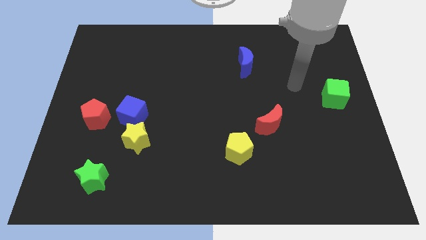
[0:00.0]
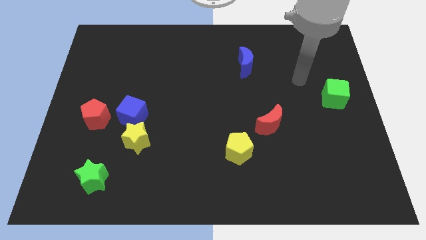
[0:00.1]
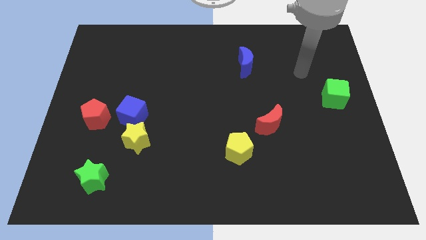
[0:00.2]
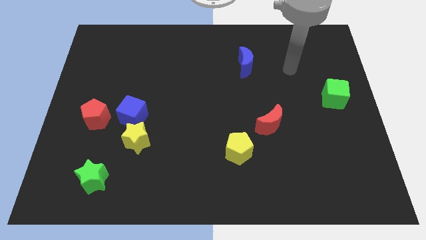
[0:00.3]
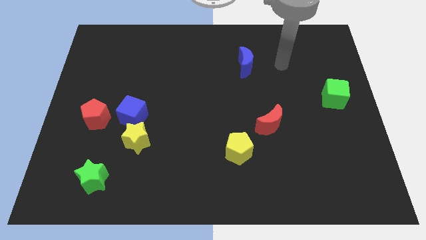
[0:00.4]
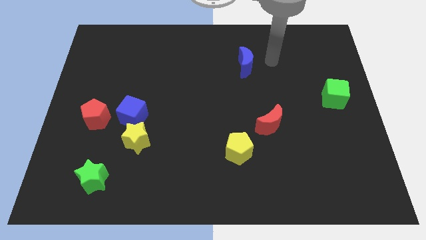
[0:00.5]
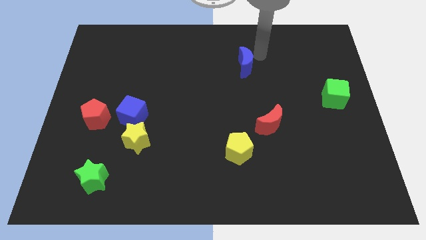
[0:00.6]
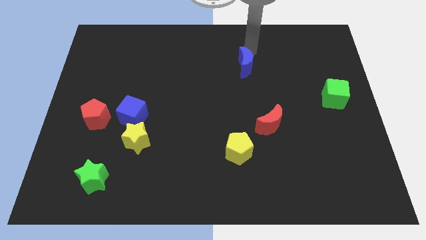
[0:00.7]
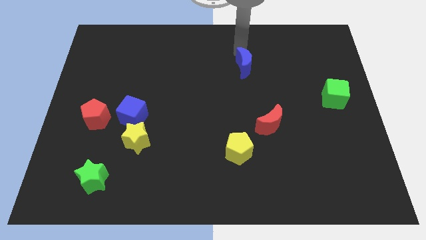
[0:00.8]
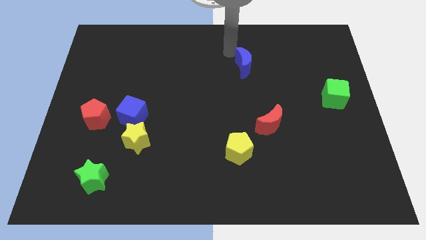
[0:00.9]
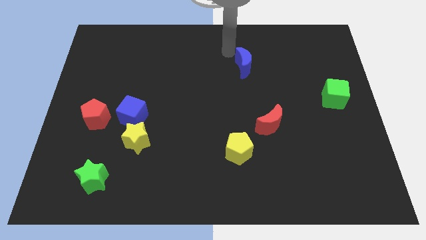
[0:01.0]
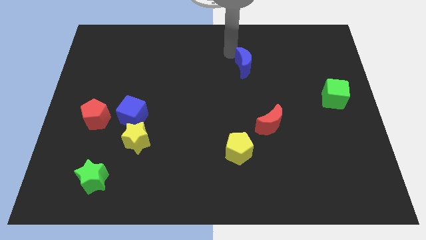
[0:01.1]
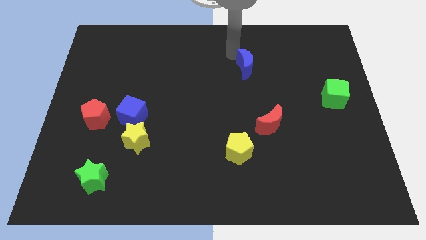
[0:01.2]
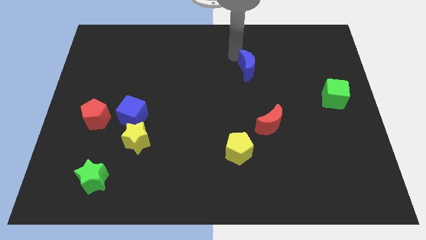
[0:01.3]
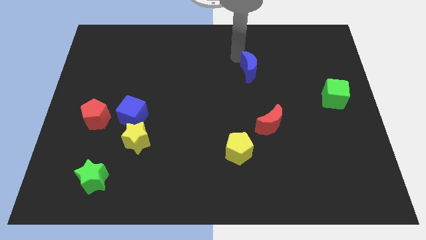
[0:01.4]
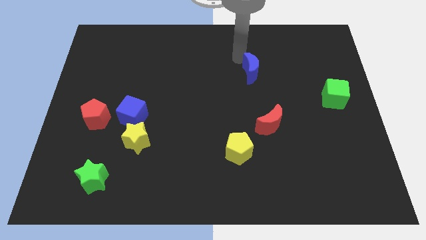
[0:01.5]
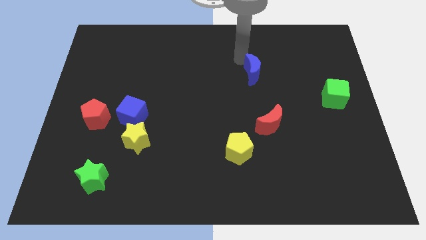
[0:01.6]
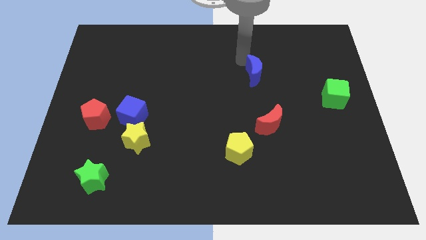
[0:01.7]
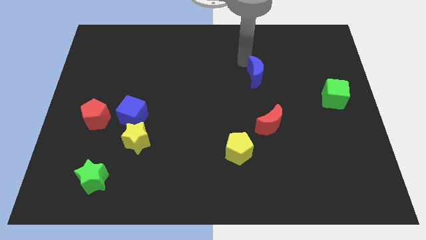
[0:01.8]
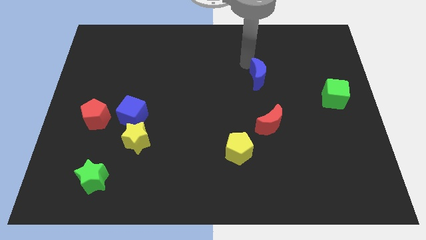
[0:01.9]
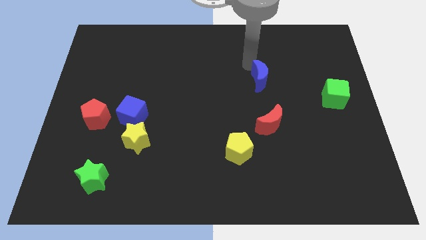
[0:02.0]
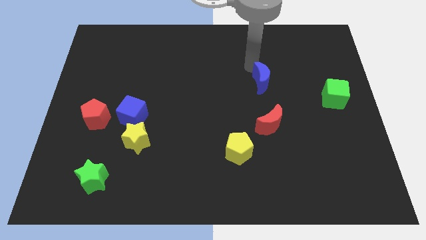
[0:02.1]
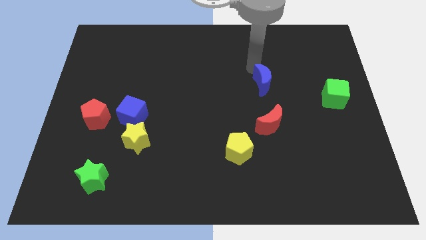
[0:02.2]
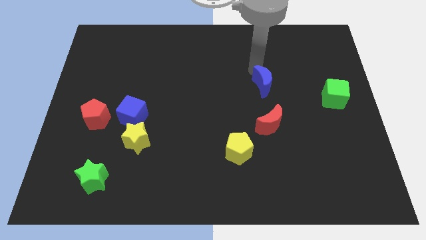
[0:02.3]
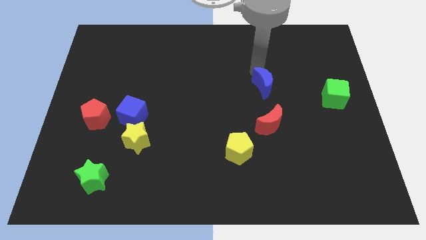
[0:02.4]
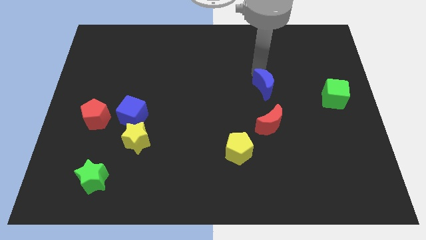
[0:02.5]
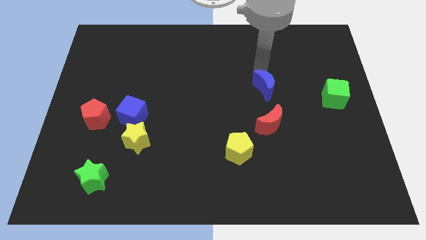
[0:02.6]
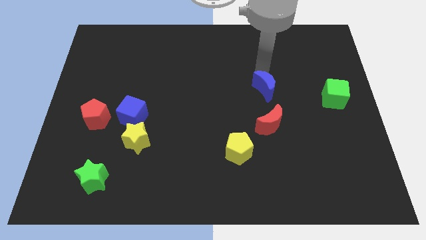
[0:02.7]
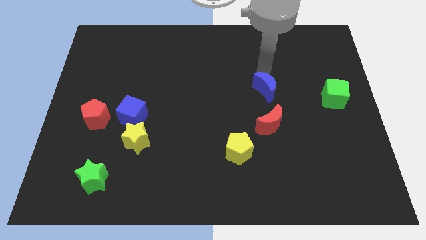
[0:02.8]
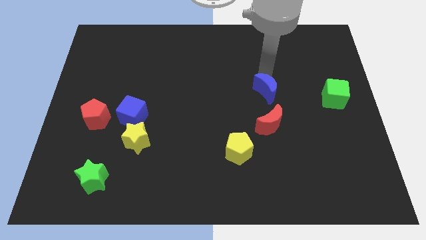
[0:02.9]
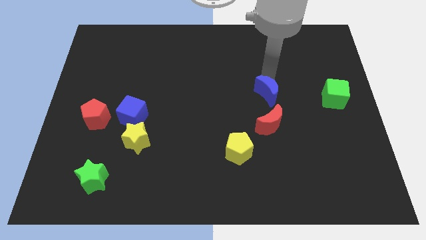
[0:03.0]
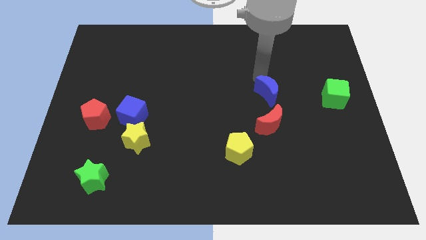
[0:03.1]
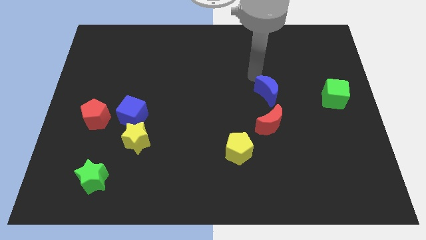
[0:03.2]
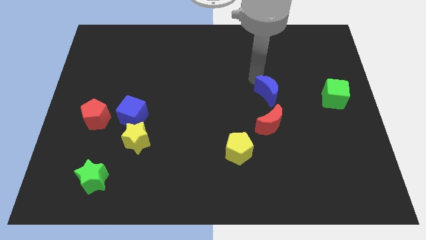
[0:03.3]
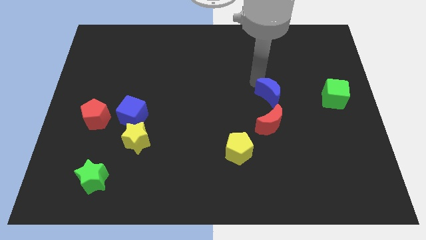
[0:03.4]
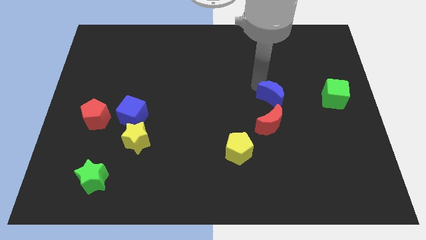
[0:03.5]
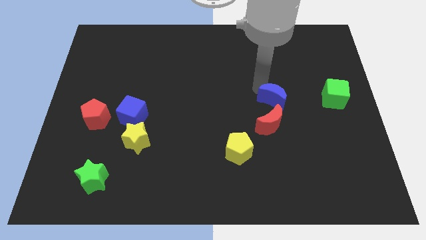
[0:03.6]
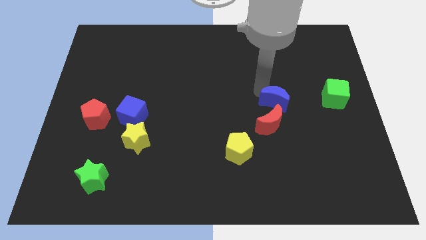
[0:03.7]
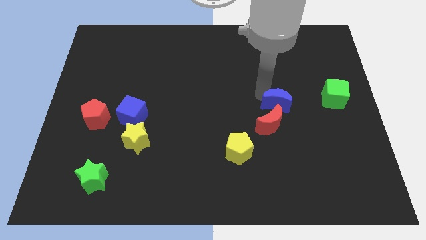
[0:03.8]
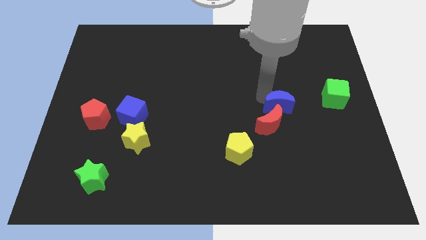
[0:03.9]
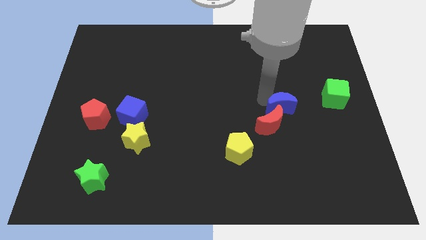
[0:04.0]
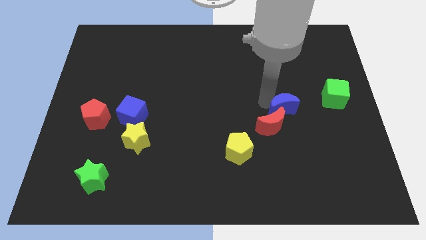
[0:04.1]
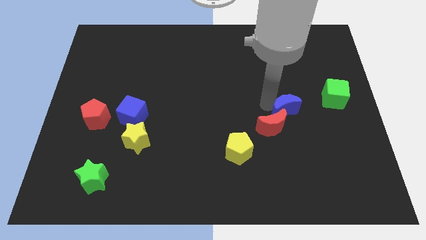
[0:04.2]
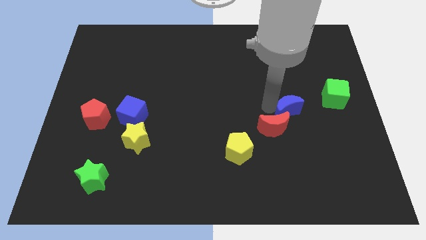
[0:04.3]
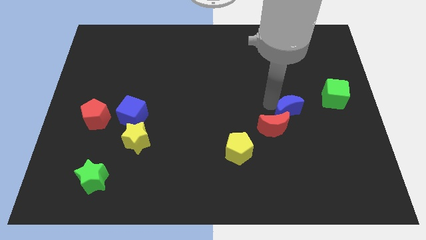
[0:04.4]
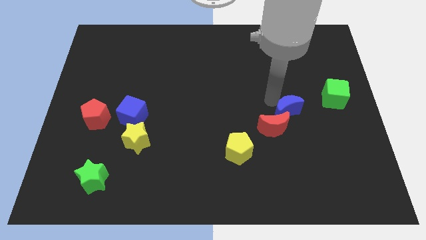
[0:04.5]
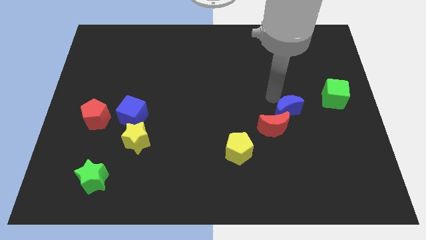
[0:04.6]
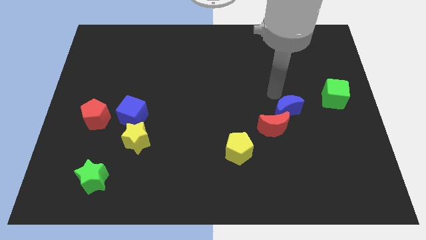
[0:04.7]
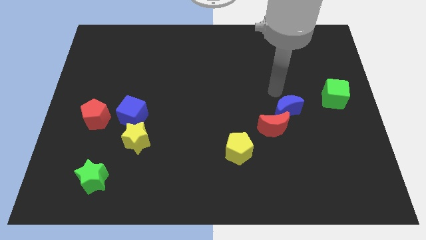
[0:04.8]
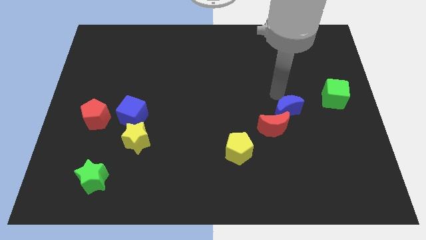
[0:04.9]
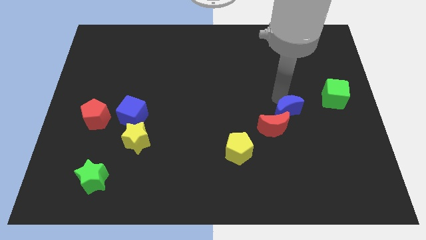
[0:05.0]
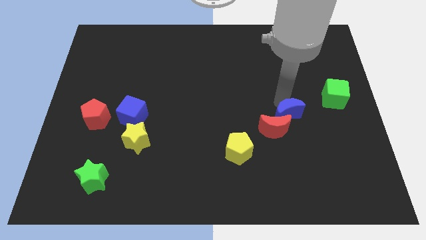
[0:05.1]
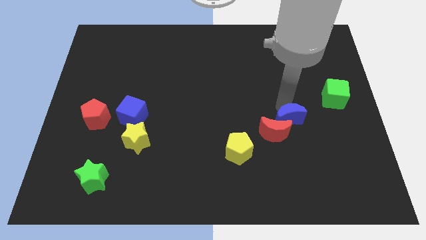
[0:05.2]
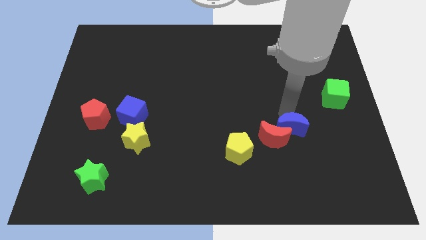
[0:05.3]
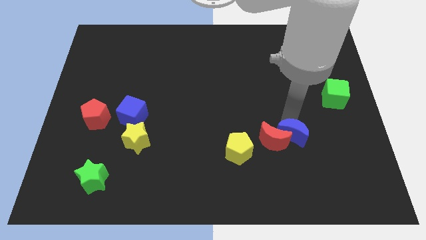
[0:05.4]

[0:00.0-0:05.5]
move the blue moon to the bottom right side of the red moon

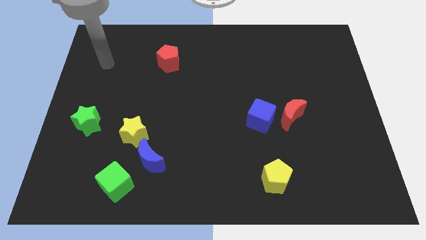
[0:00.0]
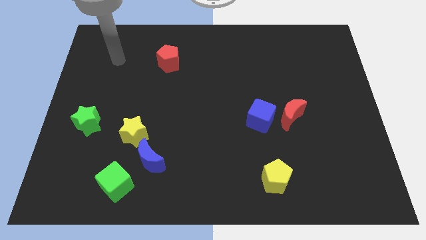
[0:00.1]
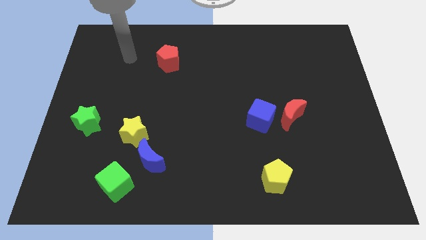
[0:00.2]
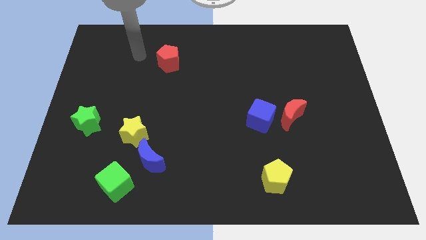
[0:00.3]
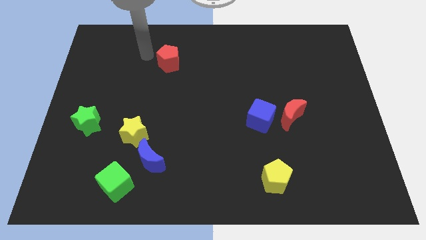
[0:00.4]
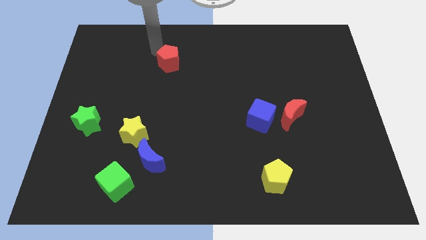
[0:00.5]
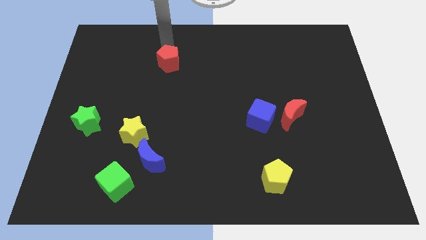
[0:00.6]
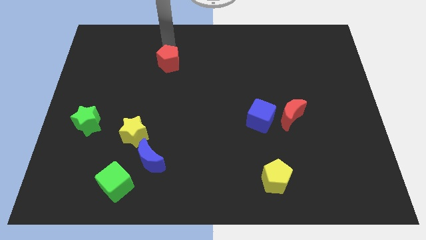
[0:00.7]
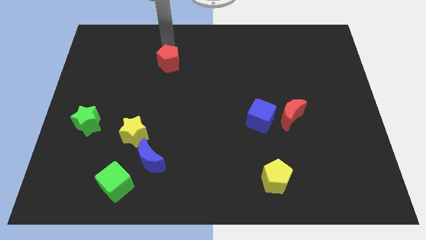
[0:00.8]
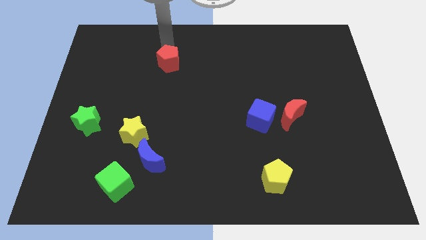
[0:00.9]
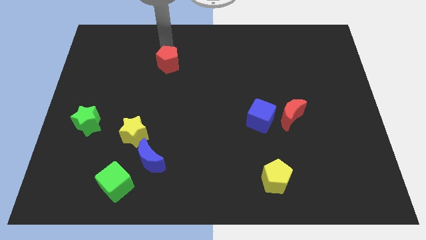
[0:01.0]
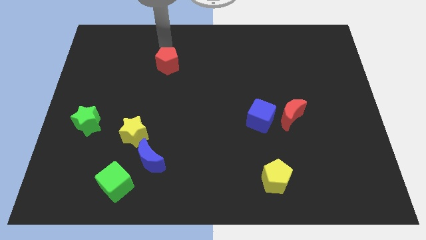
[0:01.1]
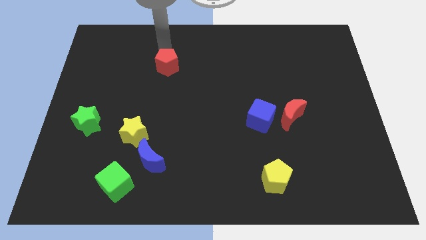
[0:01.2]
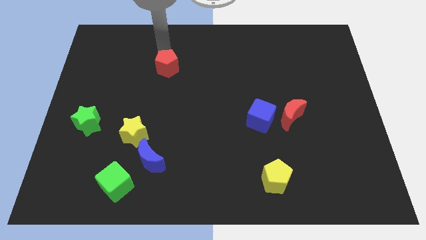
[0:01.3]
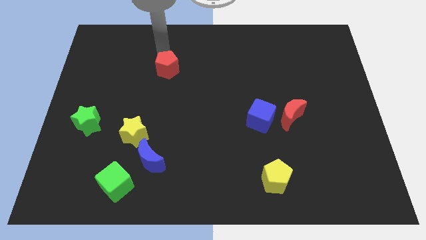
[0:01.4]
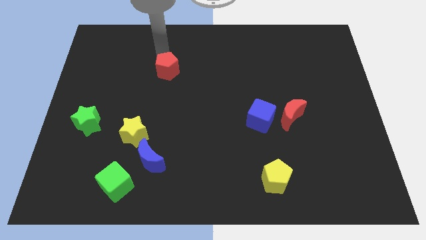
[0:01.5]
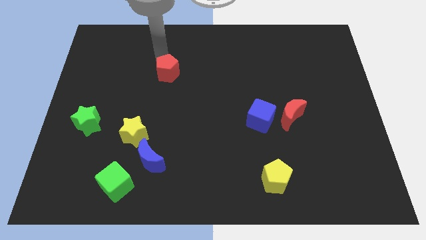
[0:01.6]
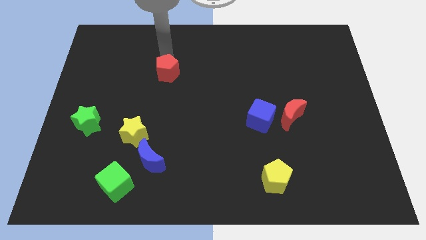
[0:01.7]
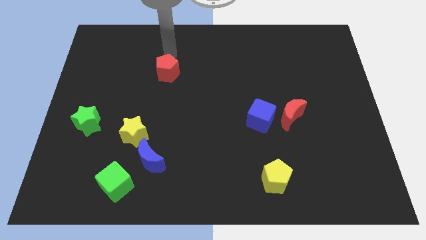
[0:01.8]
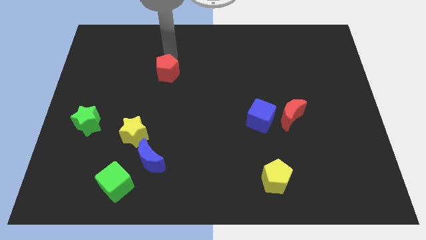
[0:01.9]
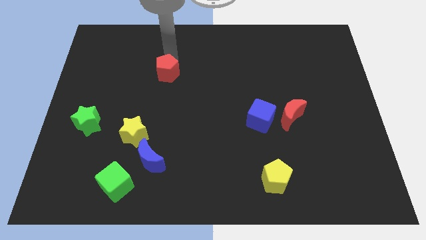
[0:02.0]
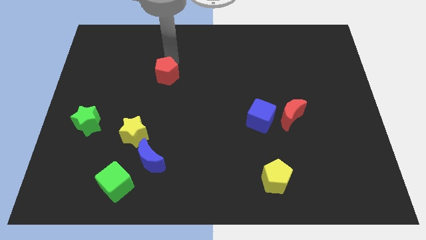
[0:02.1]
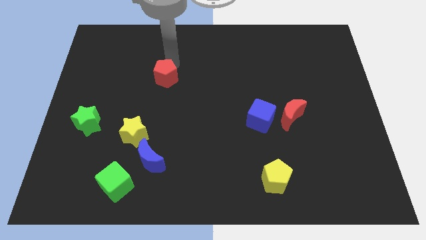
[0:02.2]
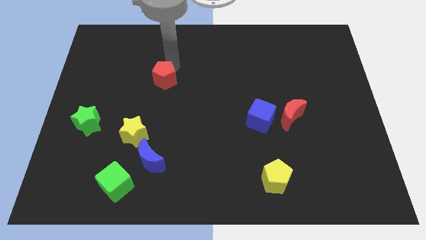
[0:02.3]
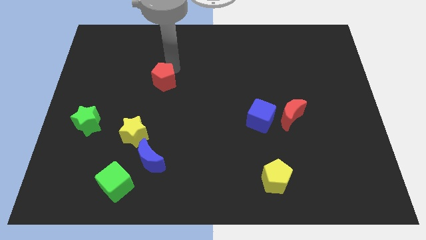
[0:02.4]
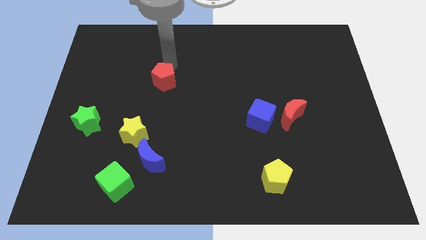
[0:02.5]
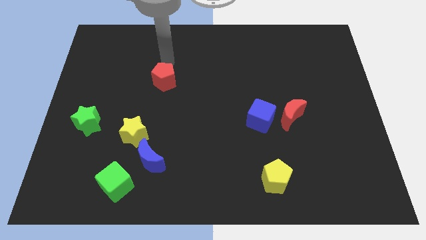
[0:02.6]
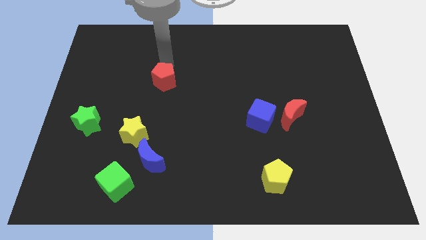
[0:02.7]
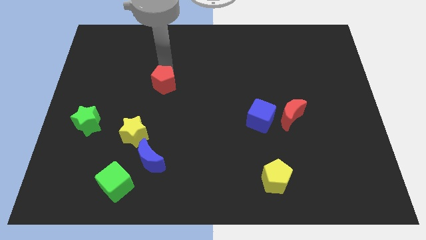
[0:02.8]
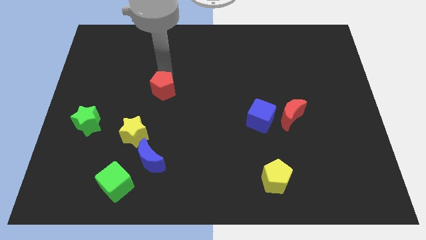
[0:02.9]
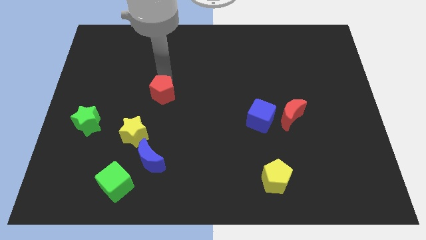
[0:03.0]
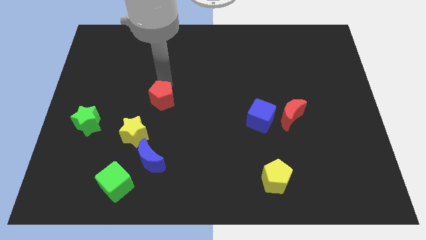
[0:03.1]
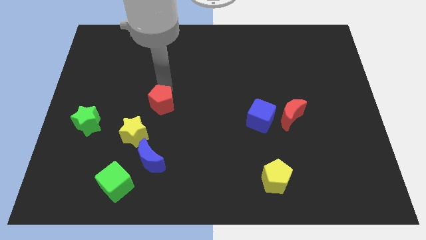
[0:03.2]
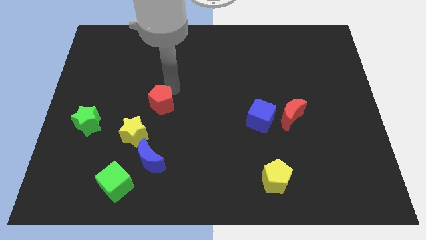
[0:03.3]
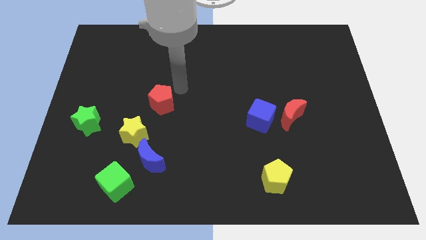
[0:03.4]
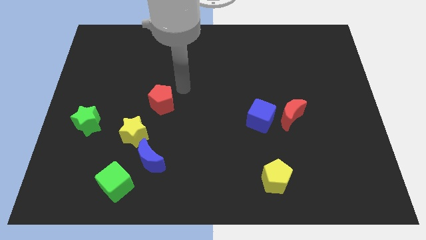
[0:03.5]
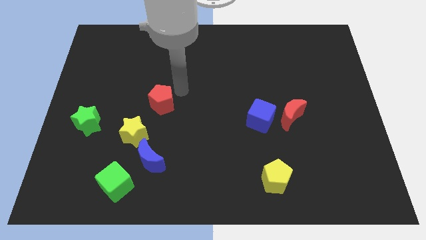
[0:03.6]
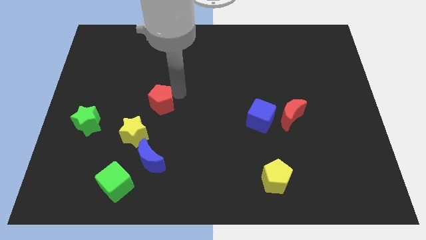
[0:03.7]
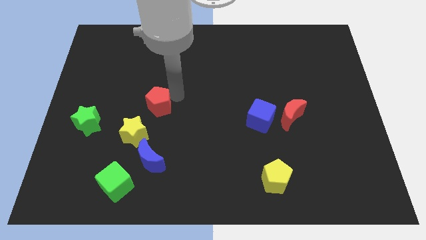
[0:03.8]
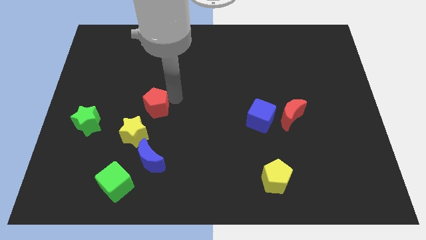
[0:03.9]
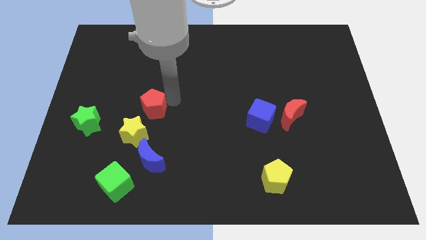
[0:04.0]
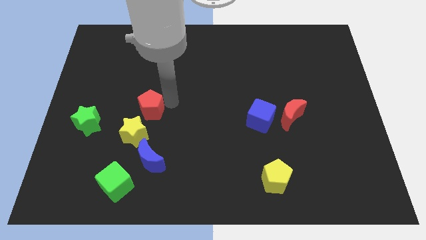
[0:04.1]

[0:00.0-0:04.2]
slide the red pentagon to the right side of the green star
